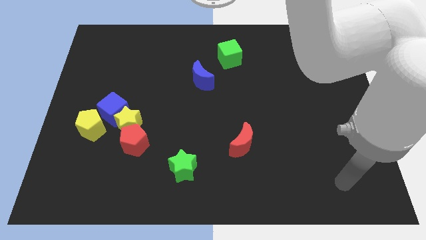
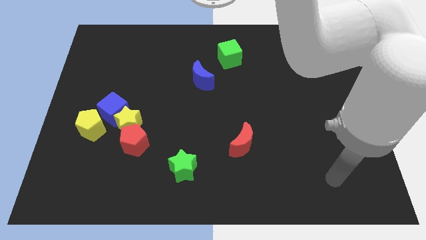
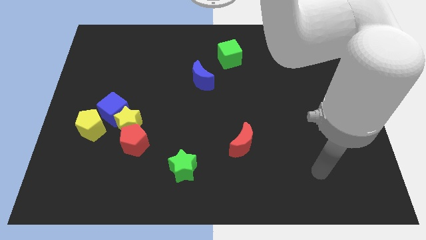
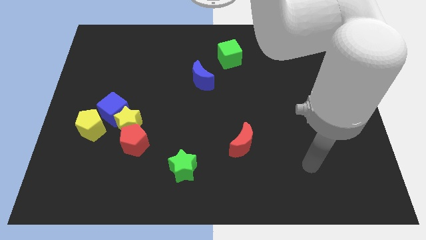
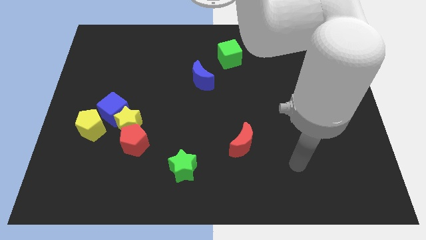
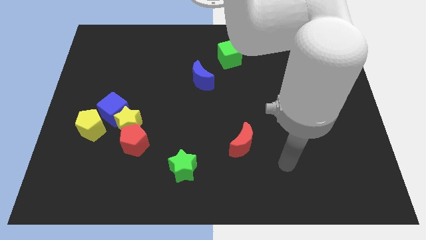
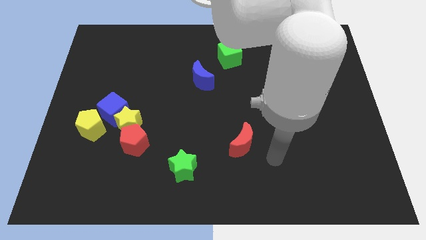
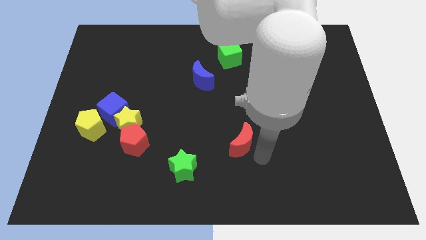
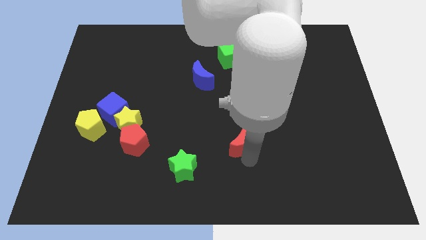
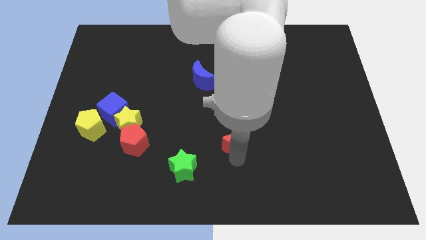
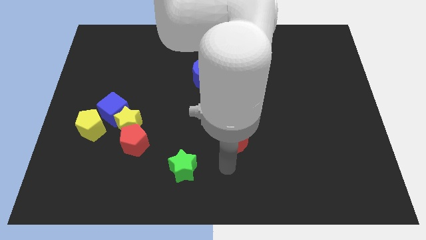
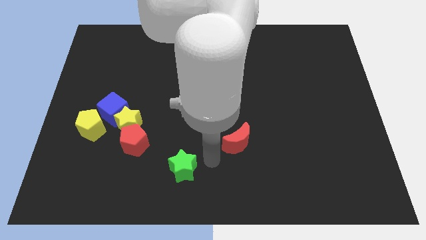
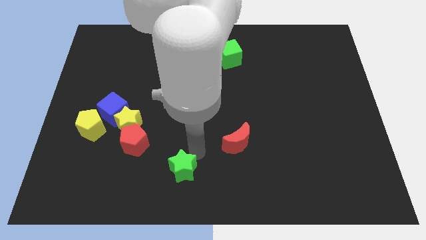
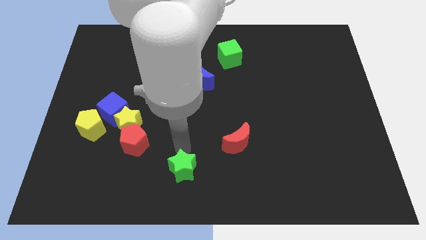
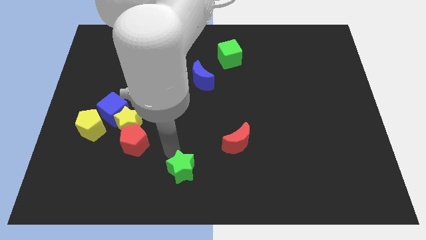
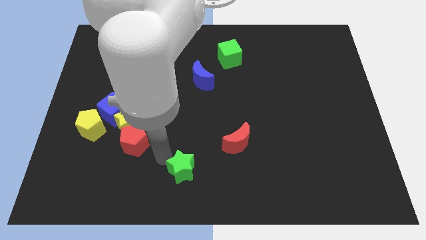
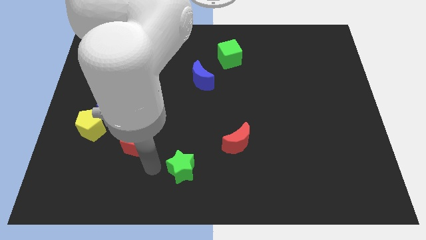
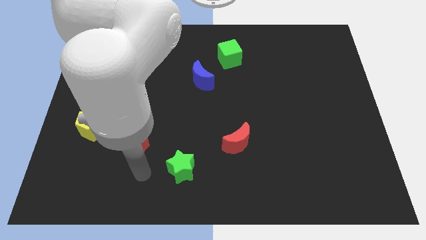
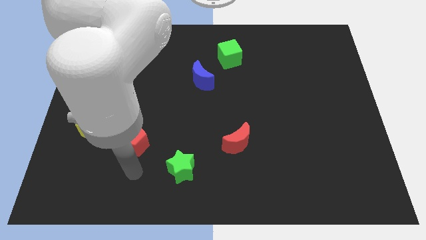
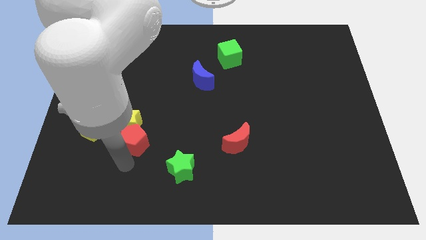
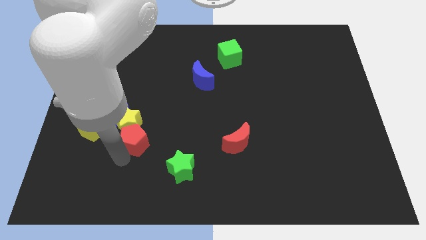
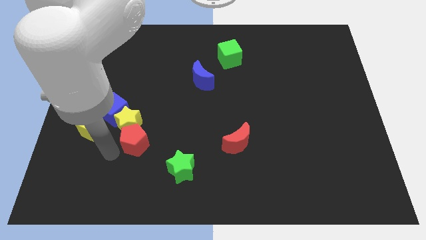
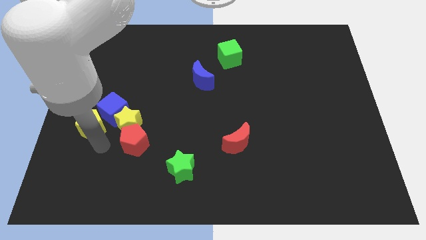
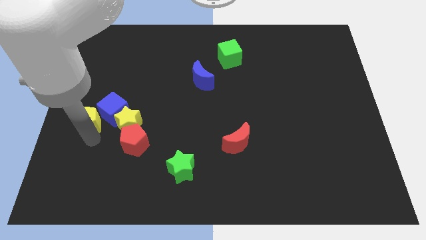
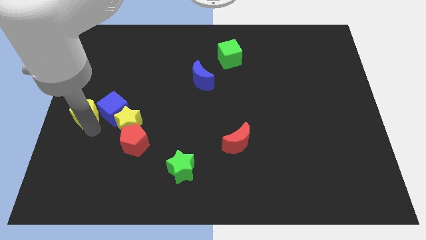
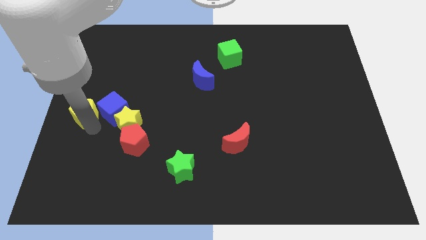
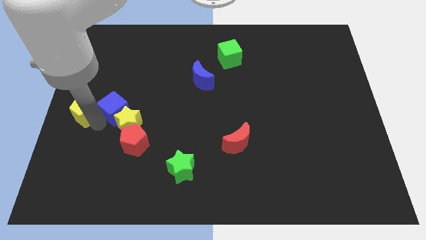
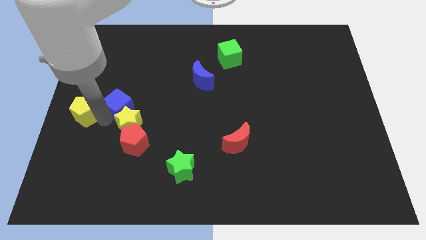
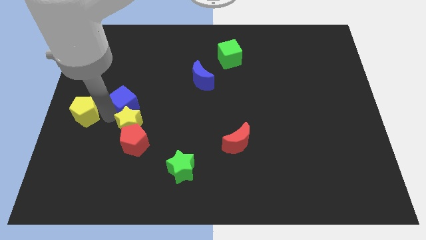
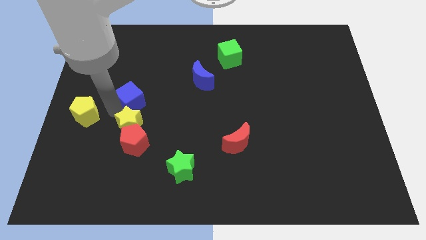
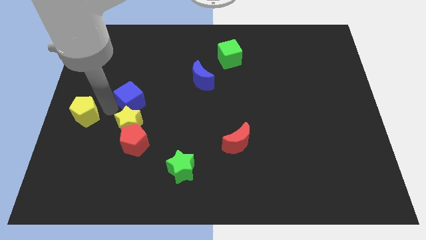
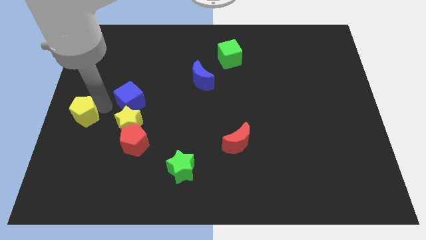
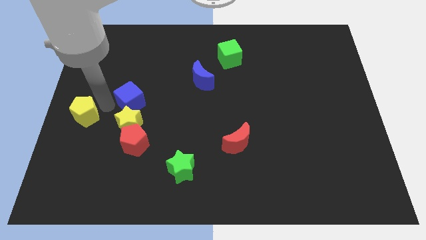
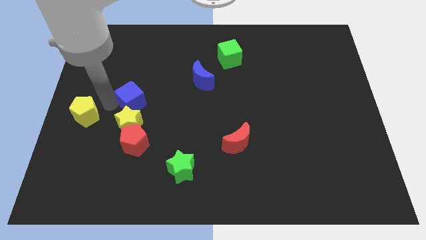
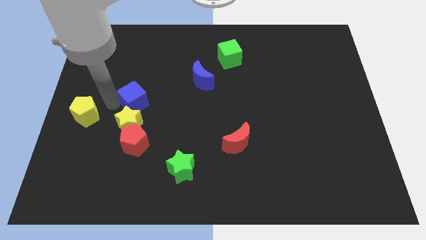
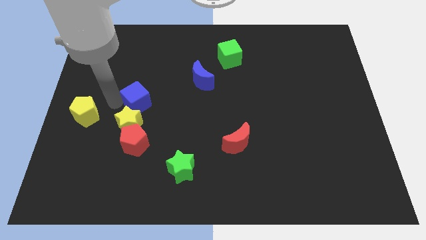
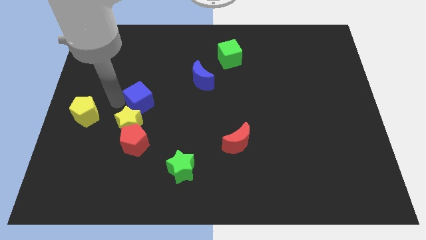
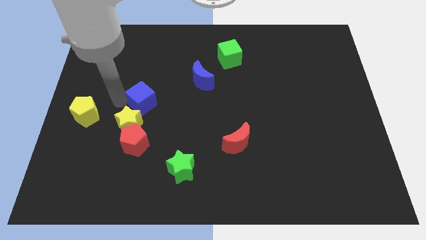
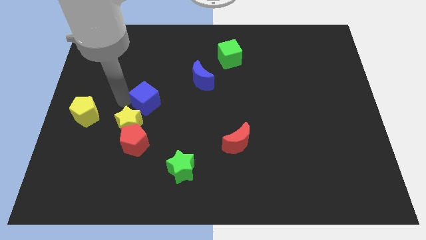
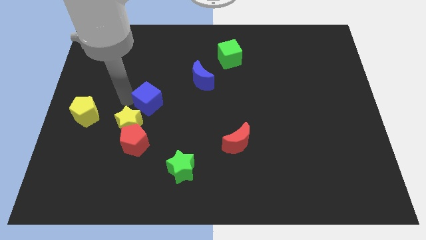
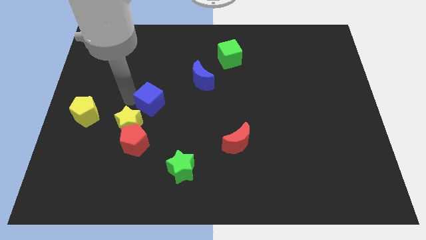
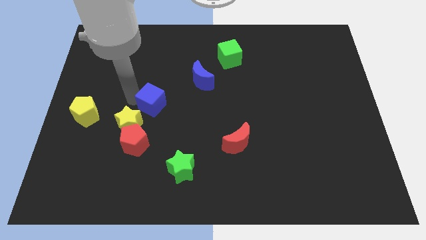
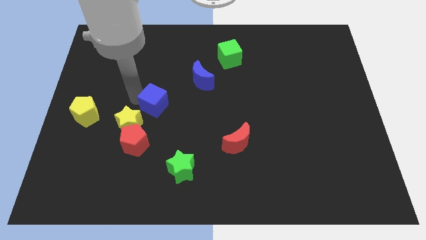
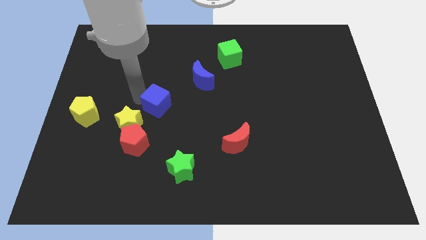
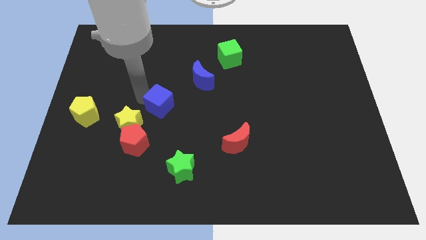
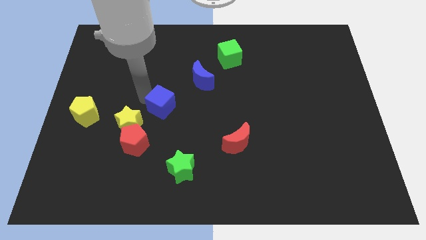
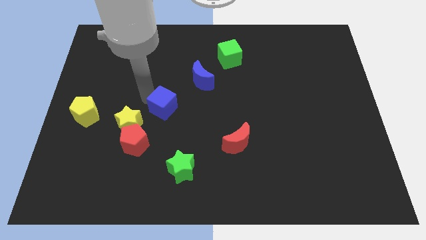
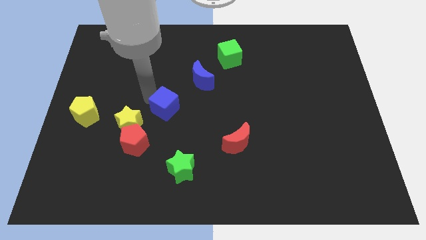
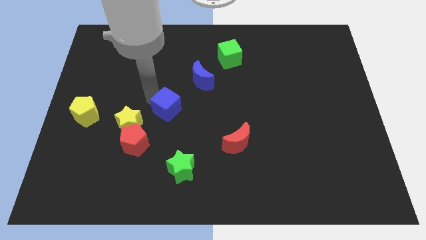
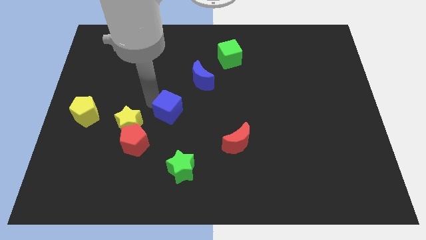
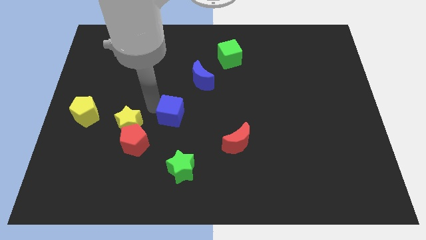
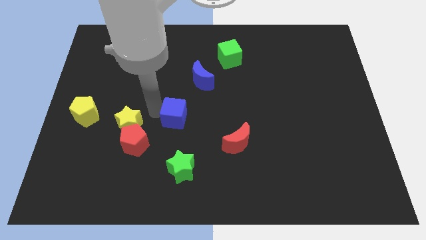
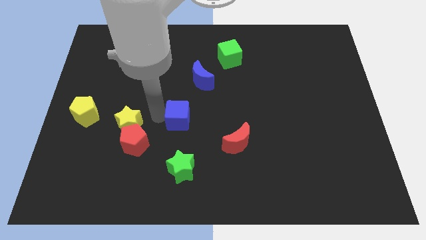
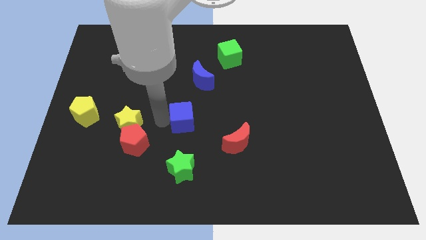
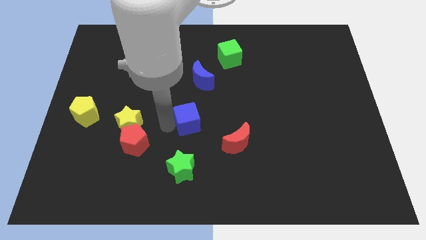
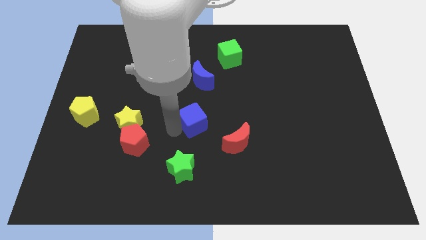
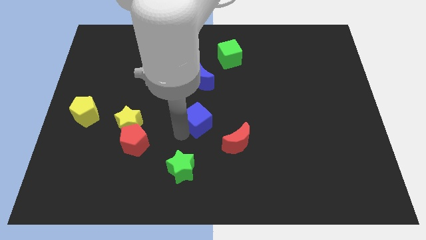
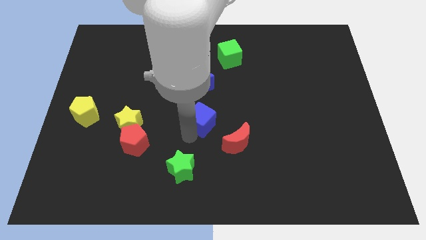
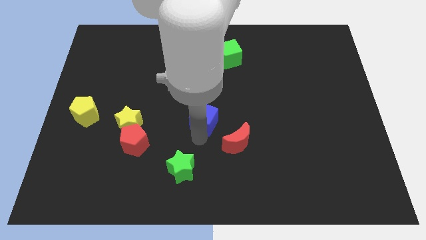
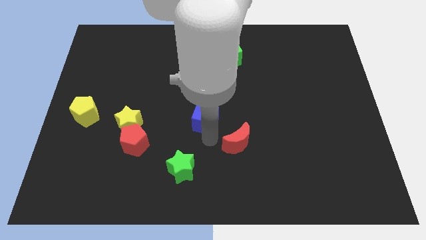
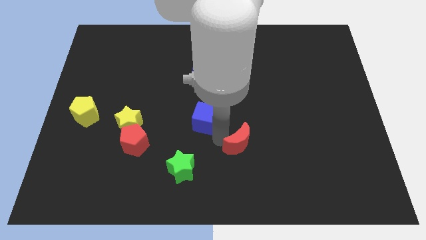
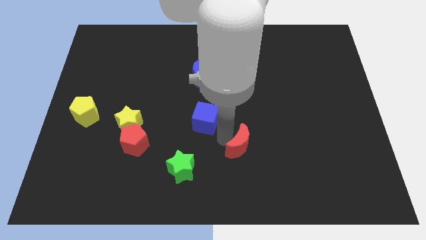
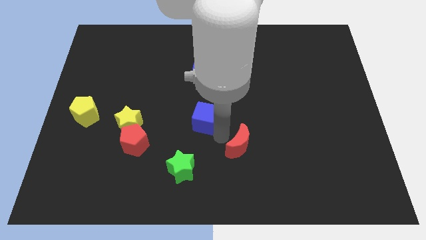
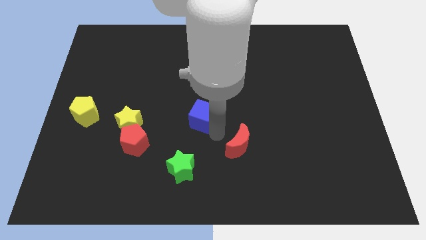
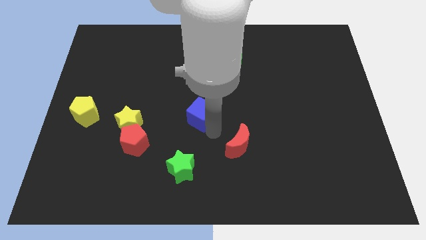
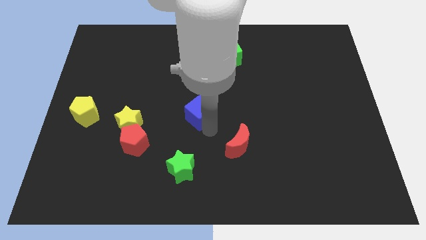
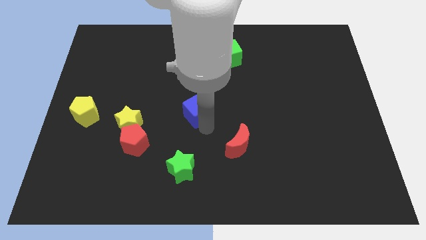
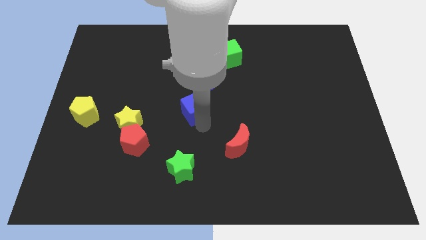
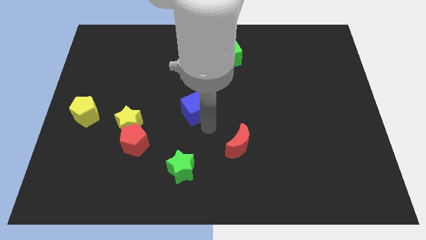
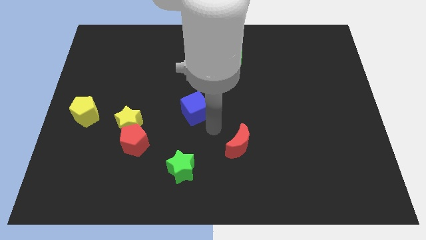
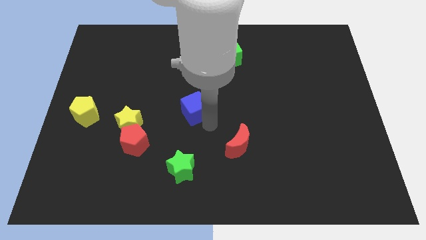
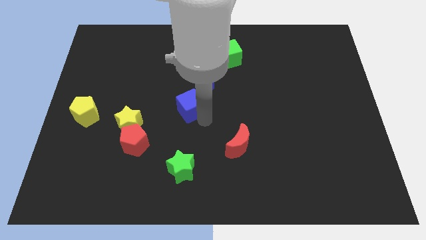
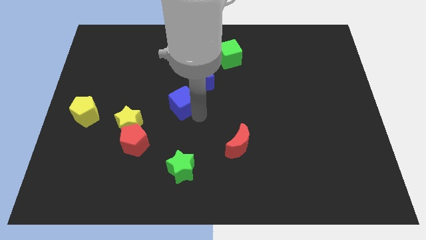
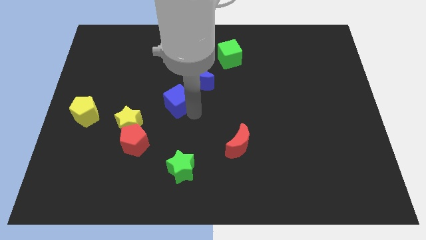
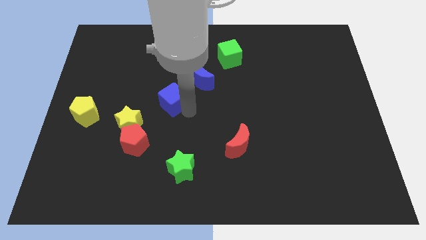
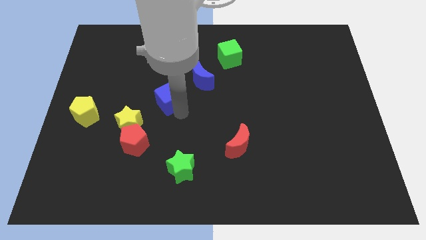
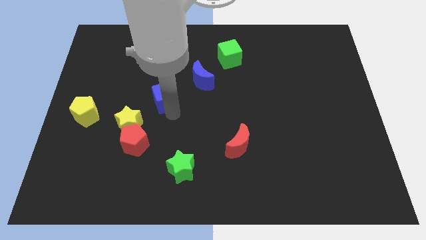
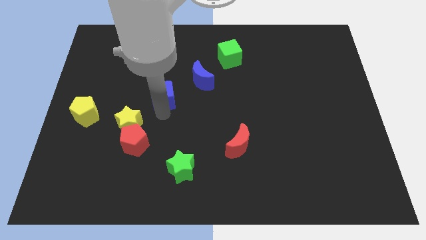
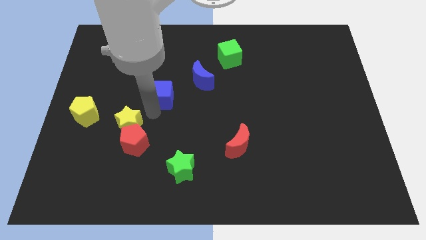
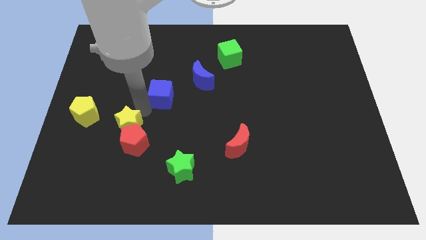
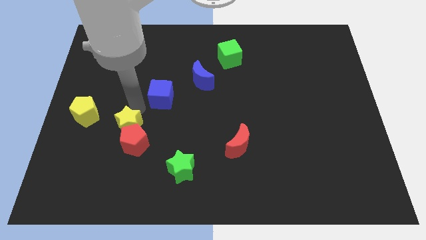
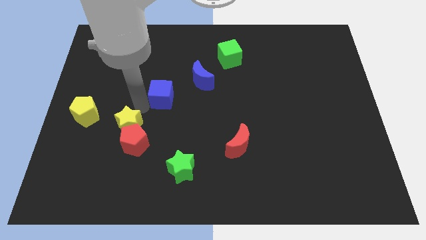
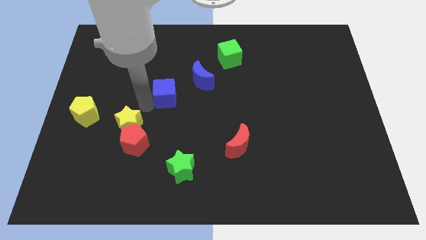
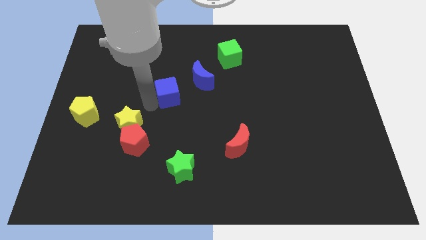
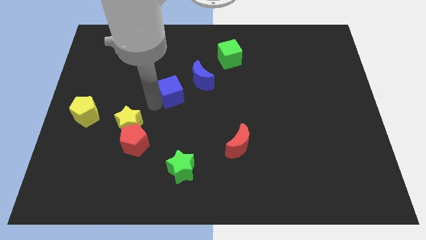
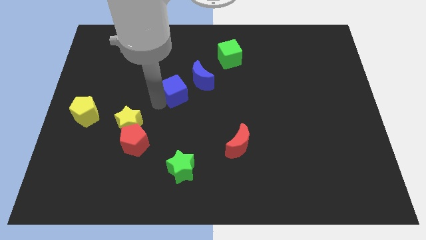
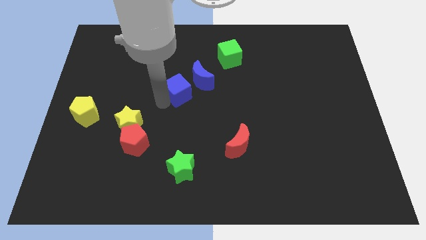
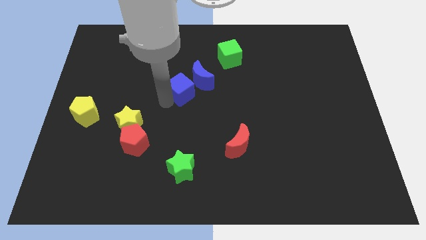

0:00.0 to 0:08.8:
put the blue cube next to the blue moon
